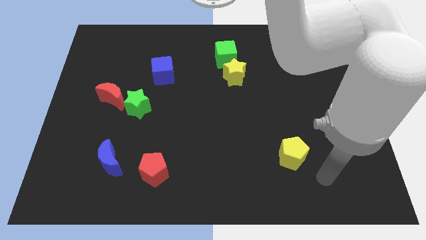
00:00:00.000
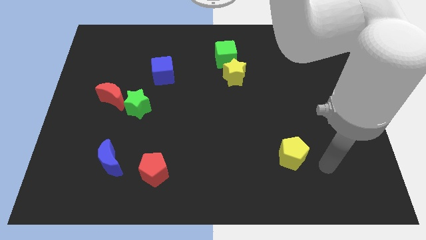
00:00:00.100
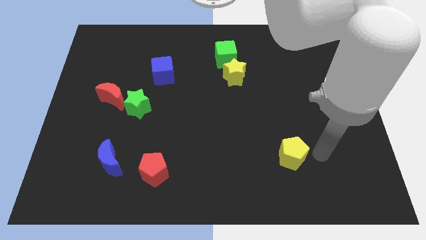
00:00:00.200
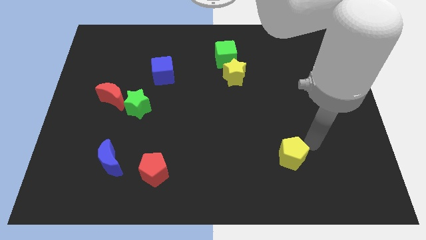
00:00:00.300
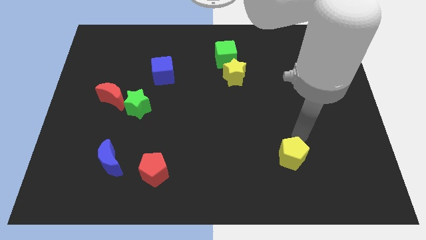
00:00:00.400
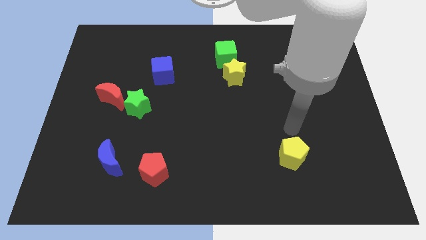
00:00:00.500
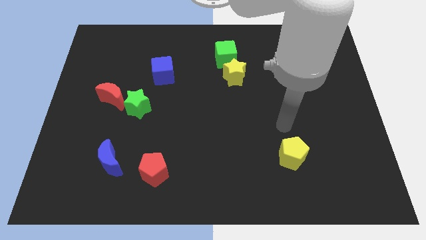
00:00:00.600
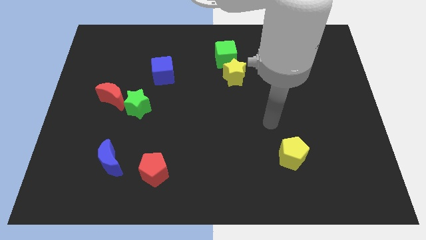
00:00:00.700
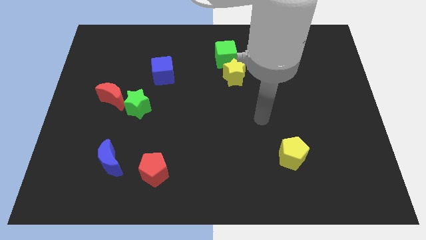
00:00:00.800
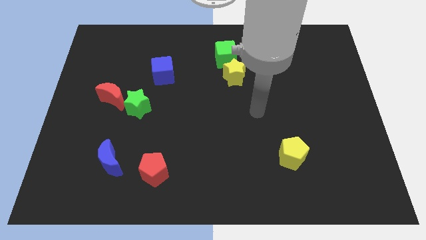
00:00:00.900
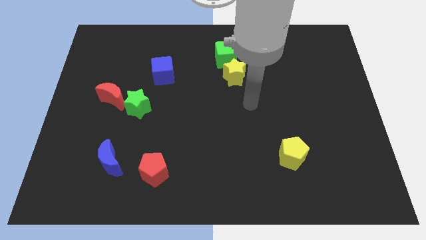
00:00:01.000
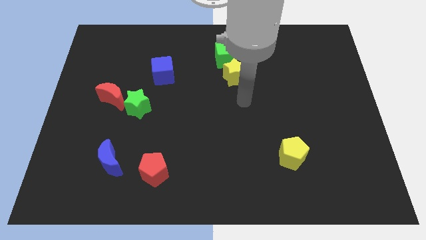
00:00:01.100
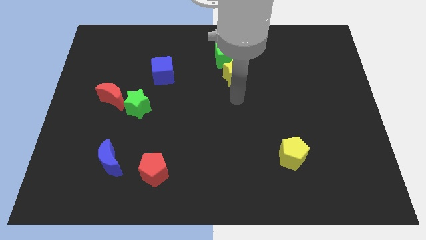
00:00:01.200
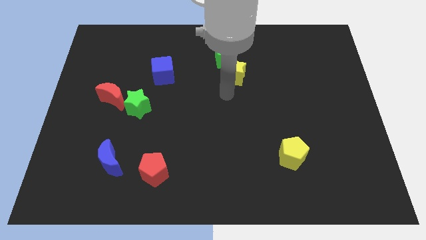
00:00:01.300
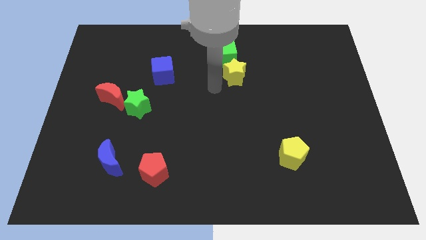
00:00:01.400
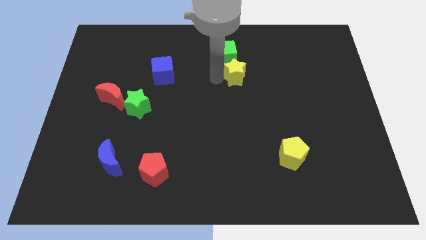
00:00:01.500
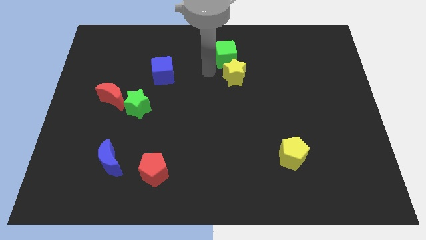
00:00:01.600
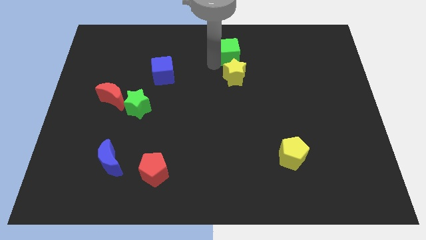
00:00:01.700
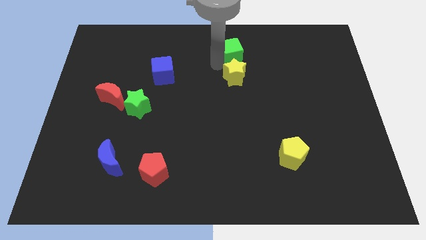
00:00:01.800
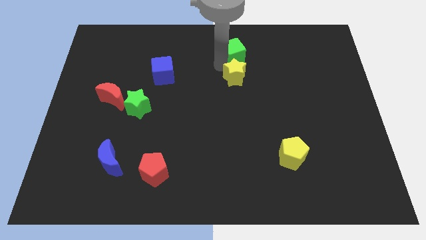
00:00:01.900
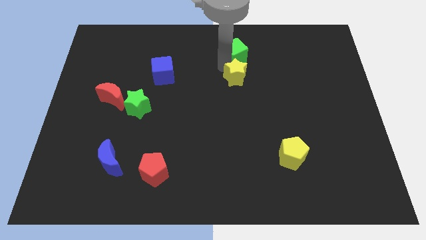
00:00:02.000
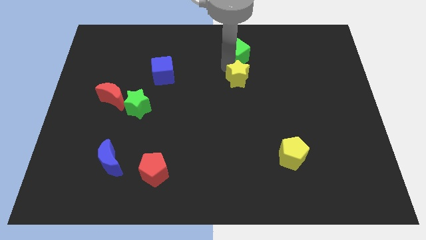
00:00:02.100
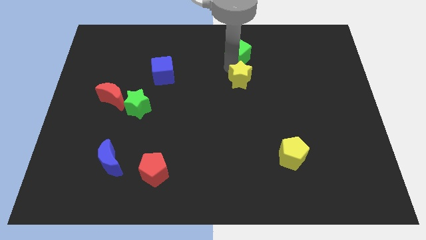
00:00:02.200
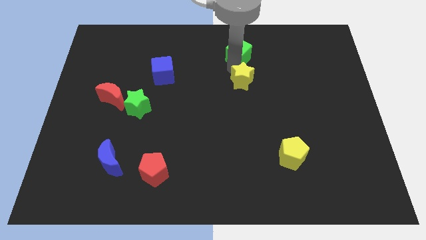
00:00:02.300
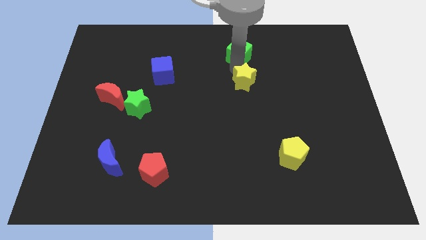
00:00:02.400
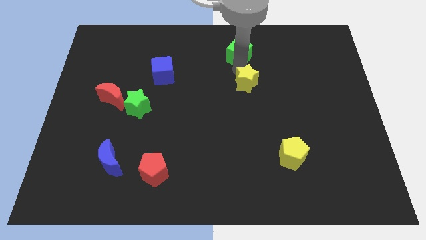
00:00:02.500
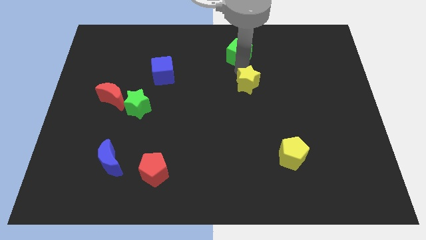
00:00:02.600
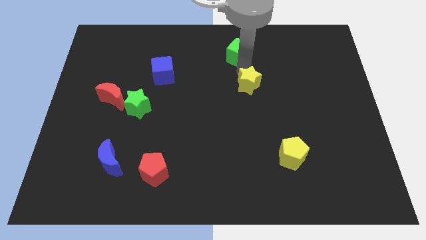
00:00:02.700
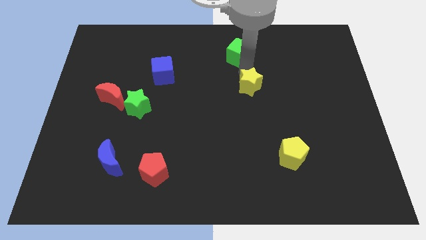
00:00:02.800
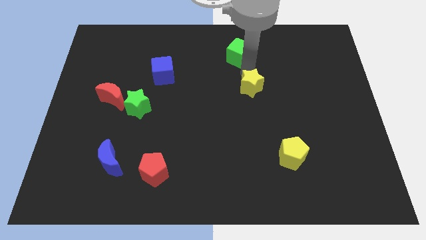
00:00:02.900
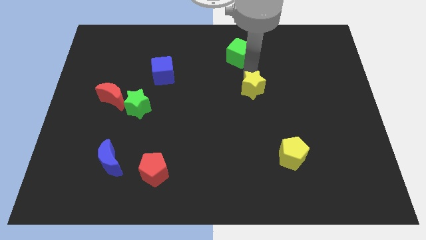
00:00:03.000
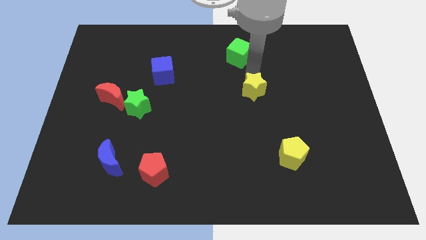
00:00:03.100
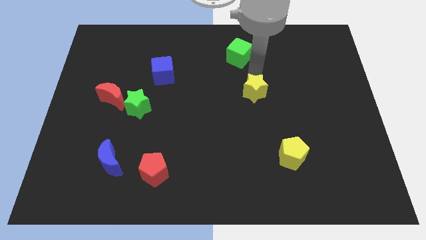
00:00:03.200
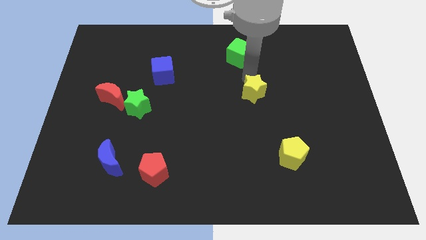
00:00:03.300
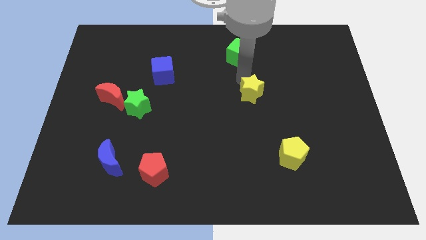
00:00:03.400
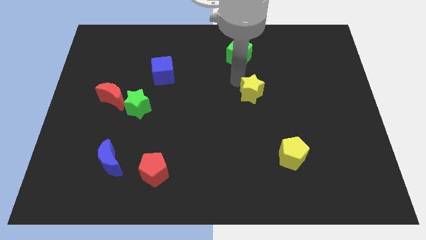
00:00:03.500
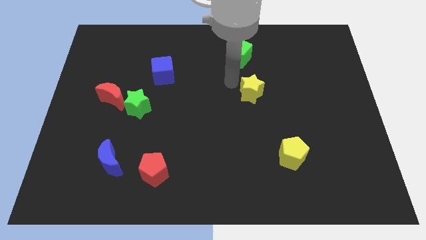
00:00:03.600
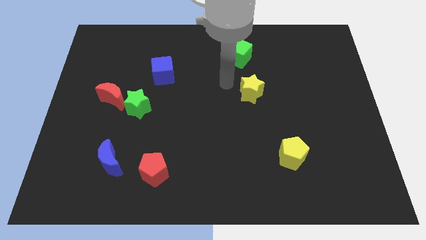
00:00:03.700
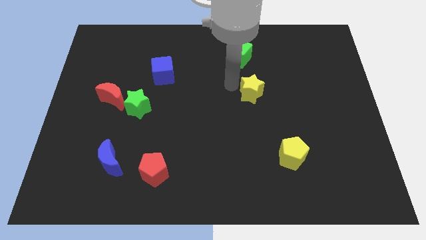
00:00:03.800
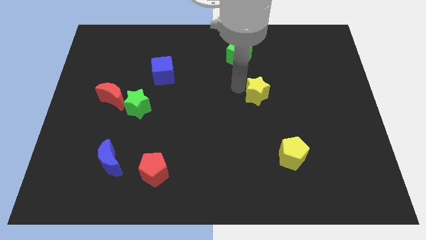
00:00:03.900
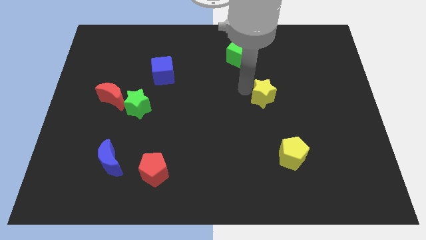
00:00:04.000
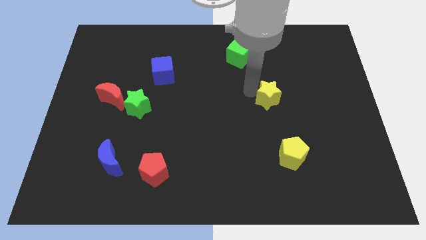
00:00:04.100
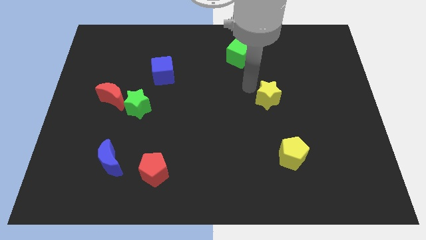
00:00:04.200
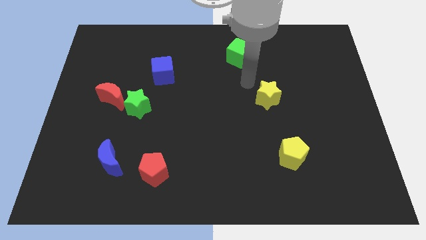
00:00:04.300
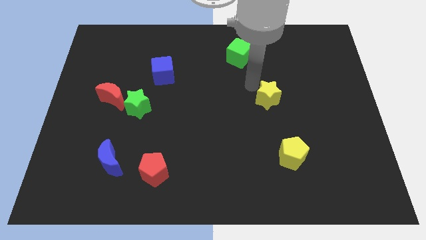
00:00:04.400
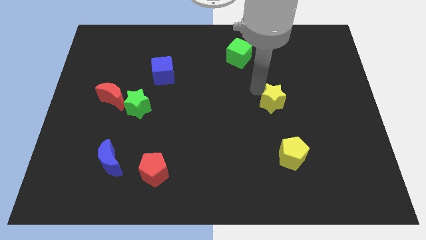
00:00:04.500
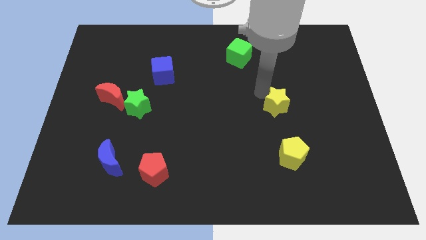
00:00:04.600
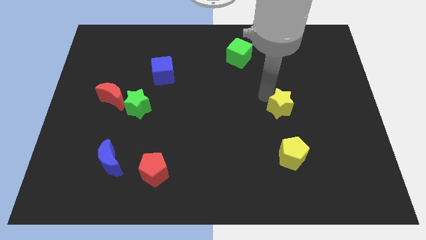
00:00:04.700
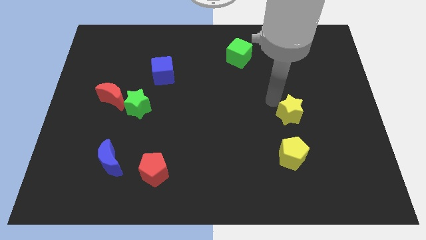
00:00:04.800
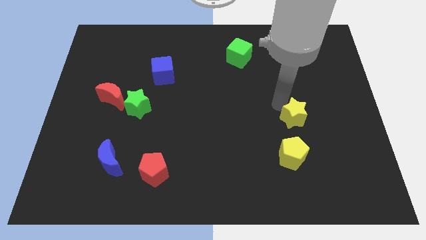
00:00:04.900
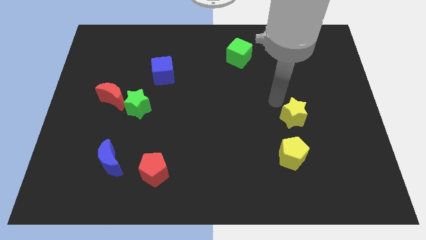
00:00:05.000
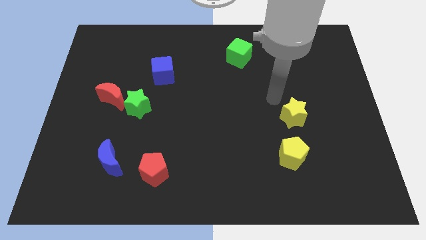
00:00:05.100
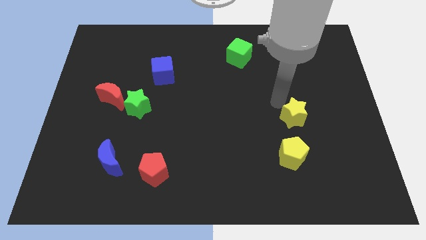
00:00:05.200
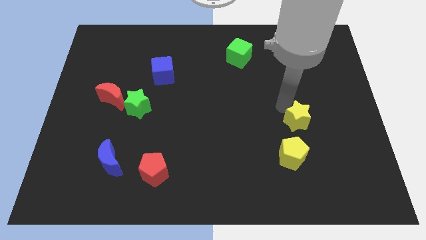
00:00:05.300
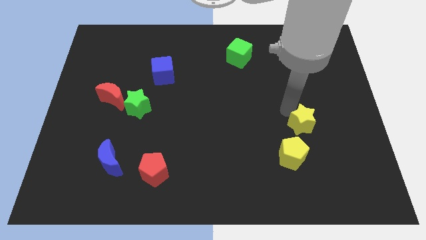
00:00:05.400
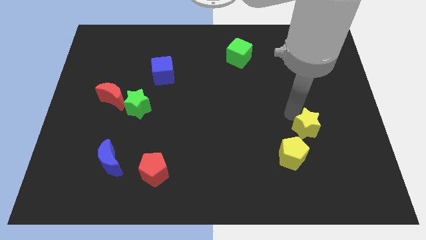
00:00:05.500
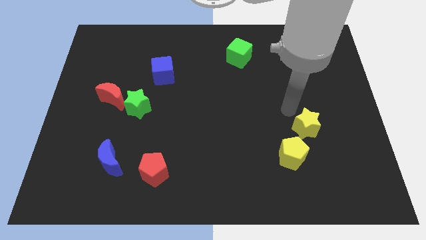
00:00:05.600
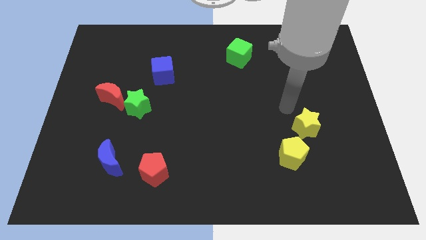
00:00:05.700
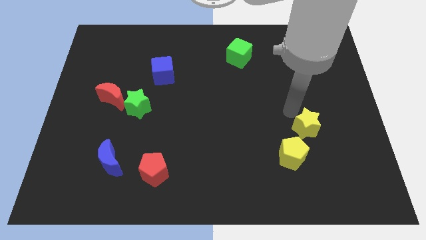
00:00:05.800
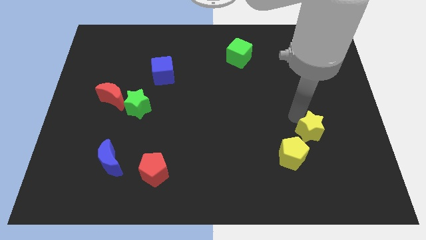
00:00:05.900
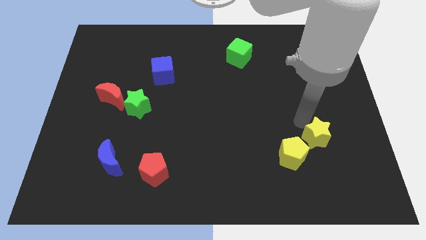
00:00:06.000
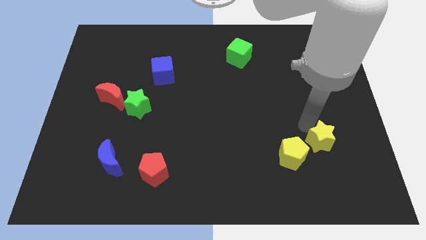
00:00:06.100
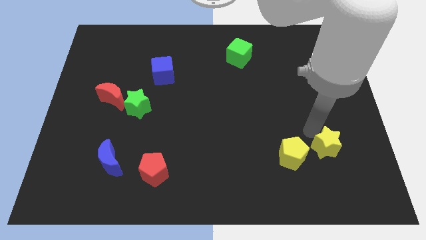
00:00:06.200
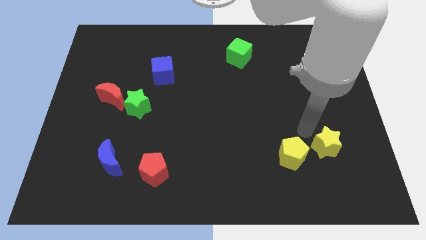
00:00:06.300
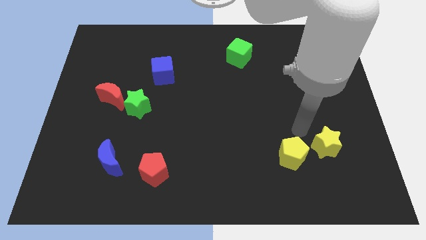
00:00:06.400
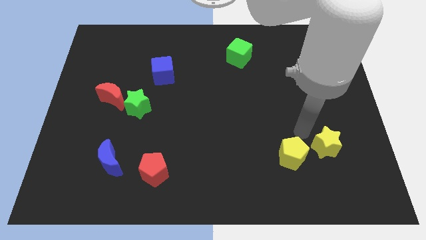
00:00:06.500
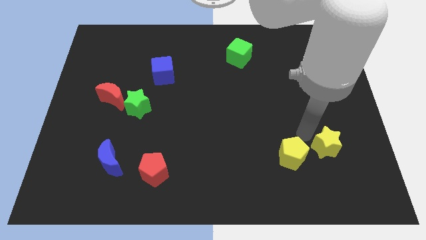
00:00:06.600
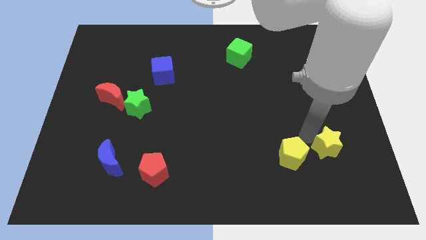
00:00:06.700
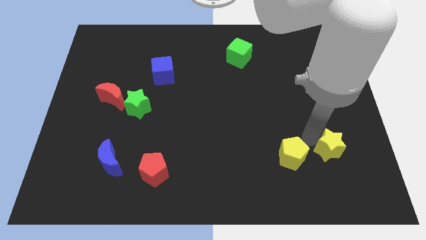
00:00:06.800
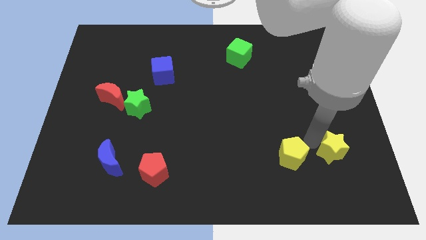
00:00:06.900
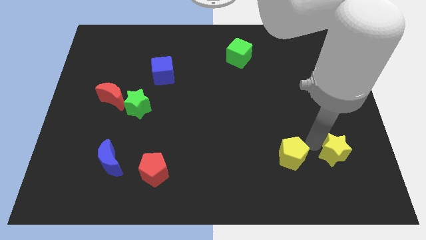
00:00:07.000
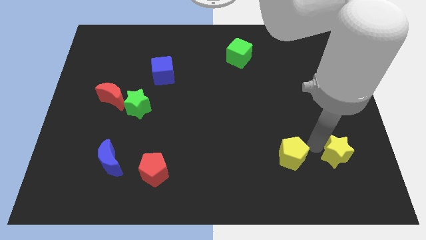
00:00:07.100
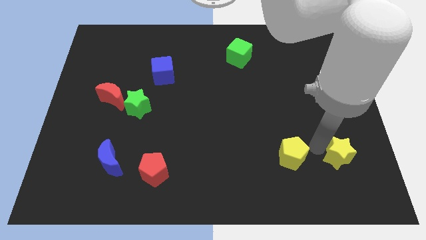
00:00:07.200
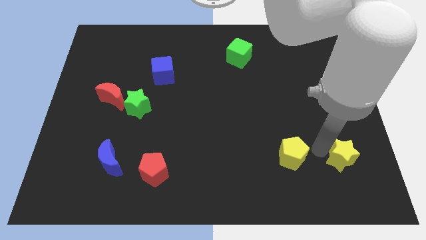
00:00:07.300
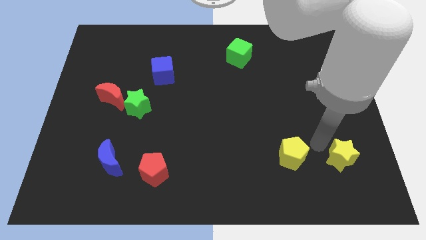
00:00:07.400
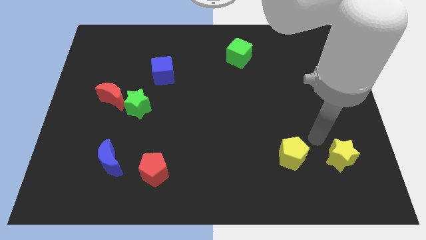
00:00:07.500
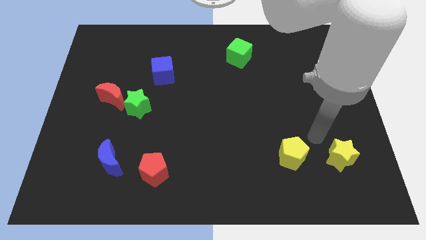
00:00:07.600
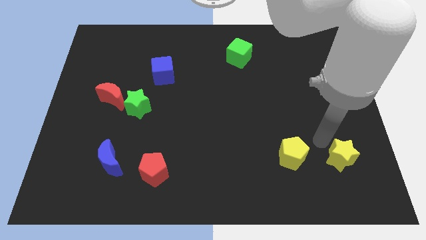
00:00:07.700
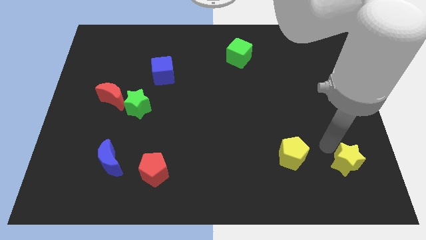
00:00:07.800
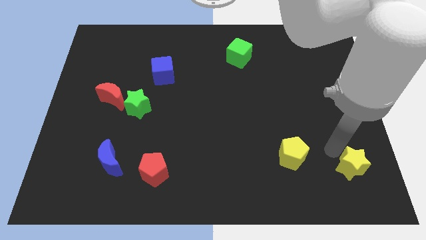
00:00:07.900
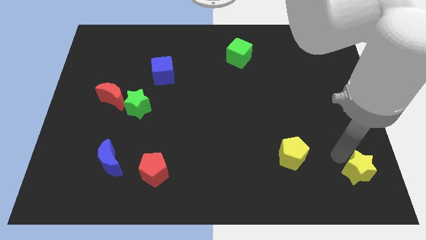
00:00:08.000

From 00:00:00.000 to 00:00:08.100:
push the yellow star to the bottom right of the board
